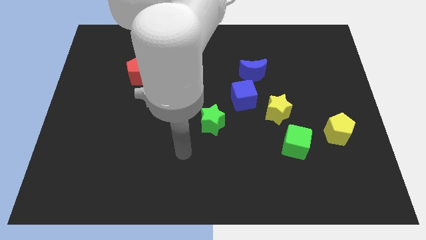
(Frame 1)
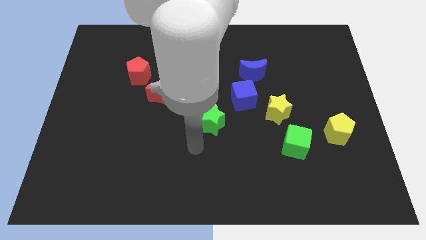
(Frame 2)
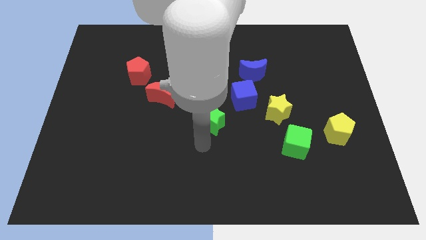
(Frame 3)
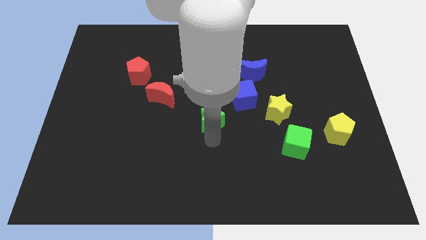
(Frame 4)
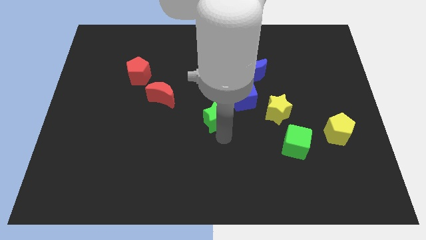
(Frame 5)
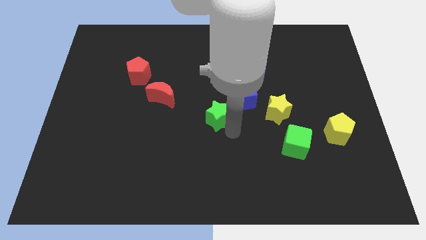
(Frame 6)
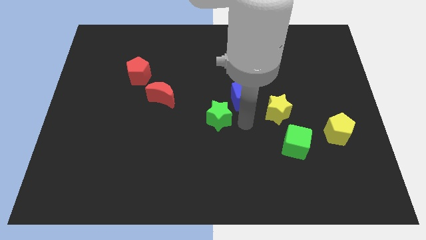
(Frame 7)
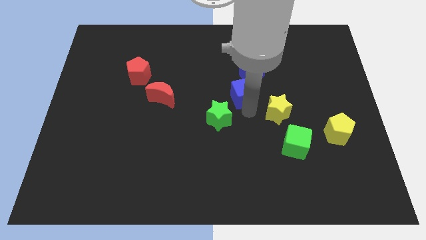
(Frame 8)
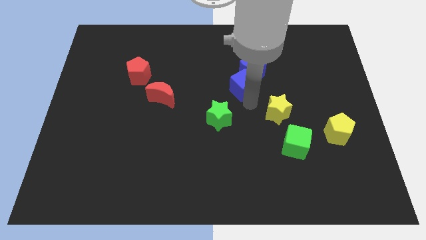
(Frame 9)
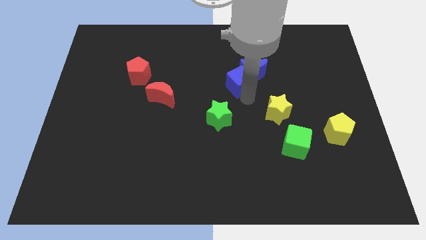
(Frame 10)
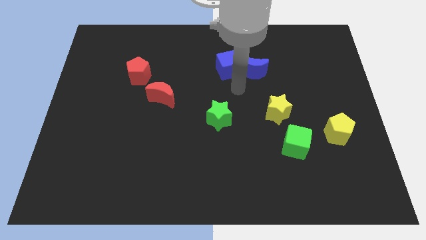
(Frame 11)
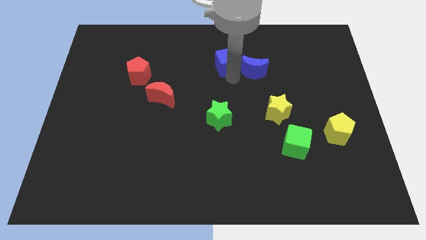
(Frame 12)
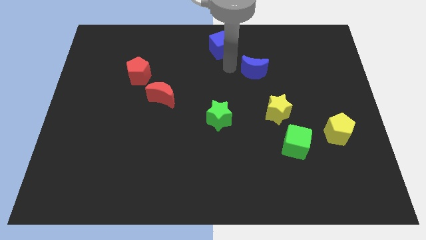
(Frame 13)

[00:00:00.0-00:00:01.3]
move the blue moon away from the blue cube

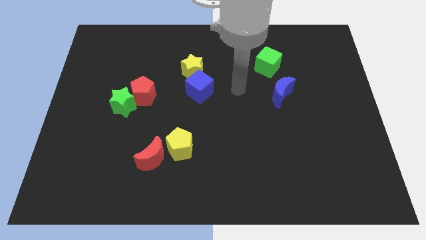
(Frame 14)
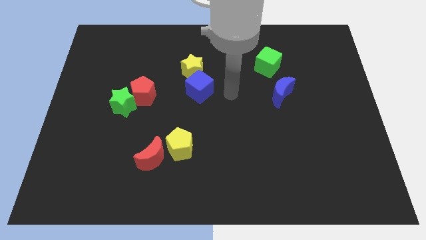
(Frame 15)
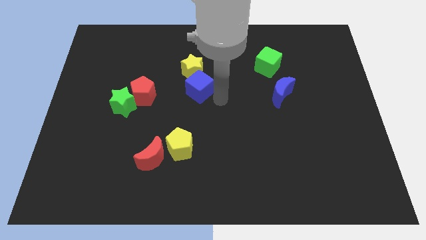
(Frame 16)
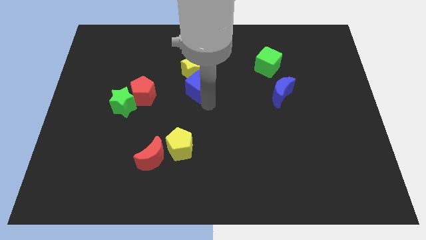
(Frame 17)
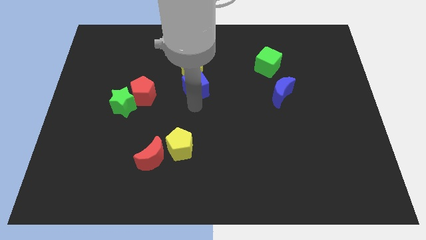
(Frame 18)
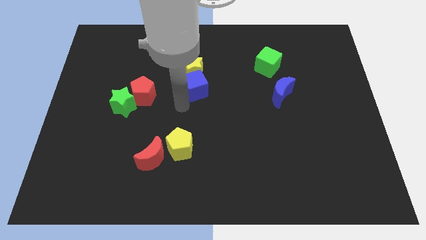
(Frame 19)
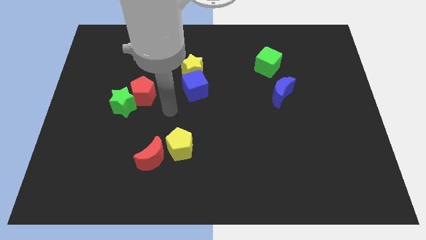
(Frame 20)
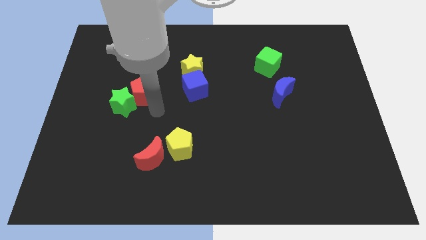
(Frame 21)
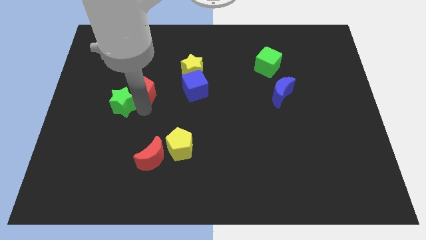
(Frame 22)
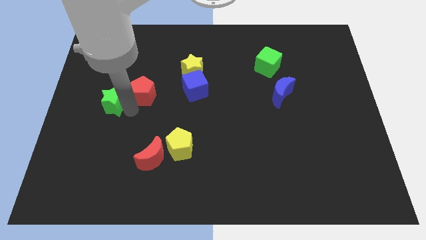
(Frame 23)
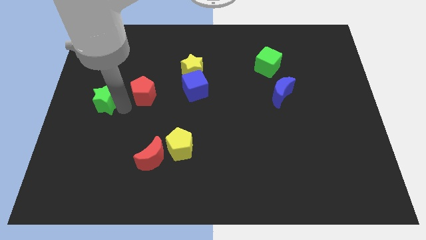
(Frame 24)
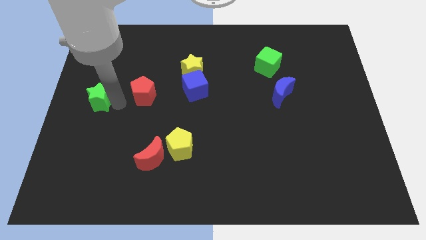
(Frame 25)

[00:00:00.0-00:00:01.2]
move the red pentagon away from the green star

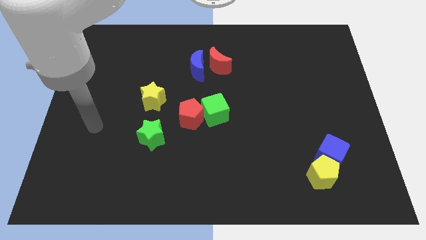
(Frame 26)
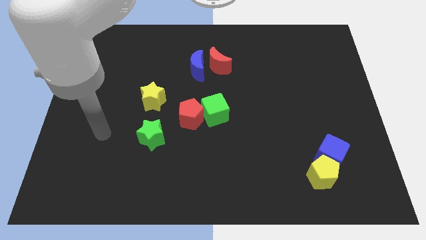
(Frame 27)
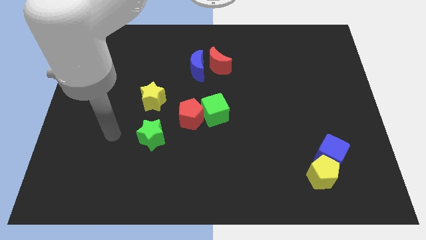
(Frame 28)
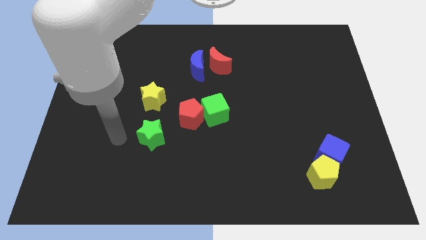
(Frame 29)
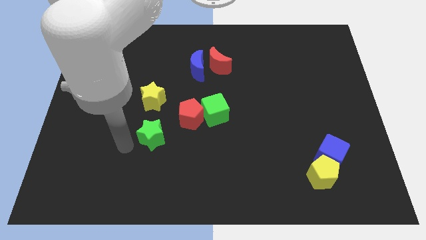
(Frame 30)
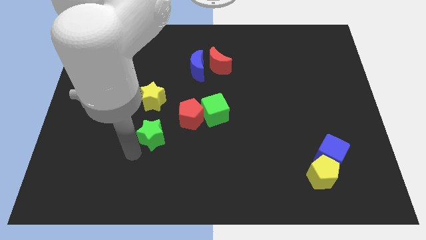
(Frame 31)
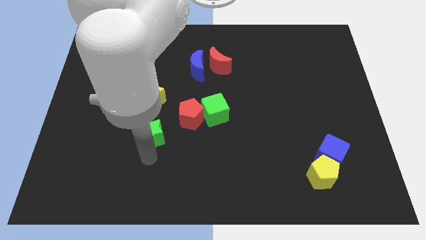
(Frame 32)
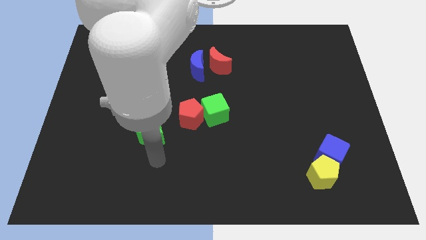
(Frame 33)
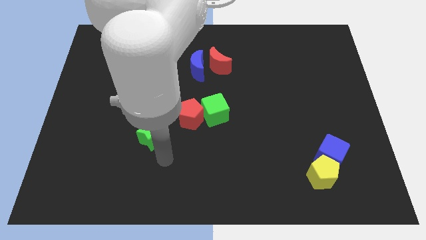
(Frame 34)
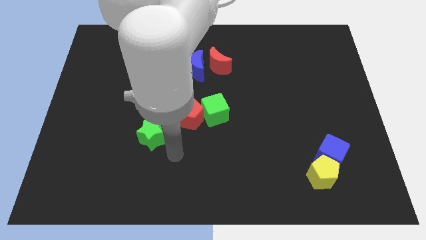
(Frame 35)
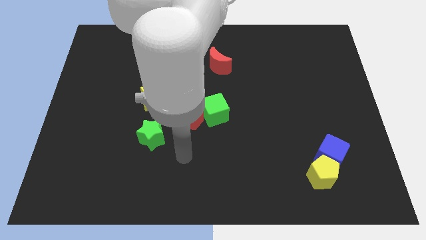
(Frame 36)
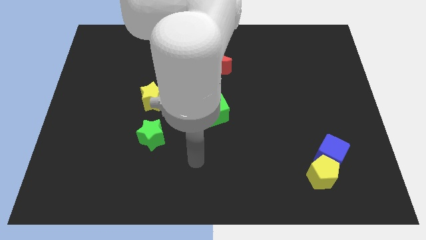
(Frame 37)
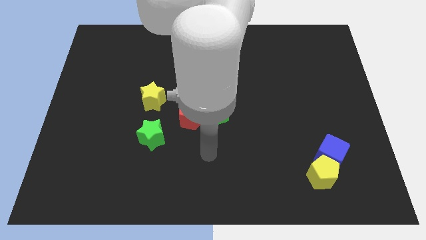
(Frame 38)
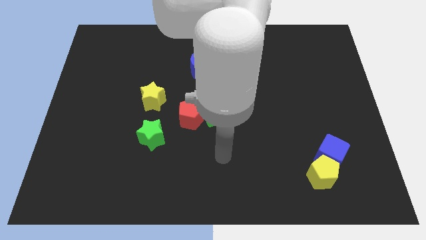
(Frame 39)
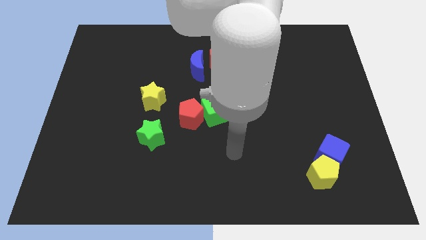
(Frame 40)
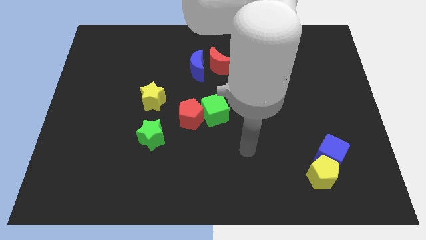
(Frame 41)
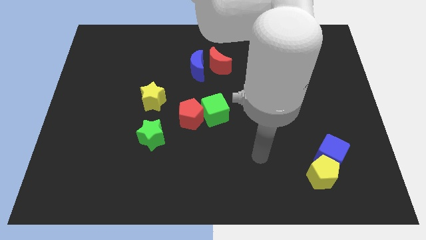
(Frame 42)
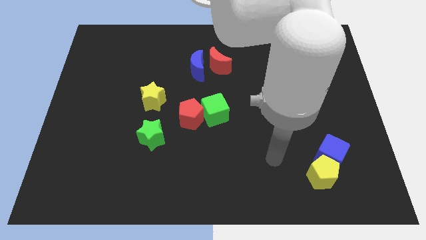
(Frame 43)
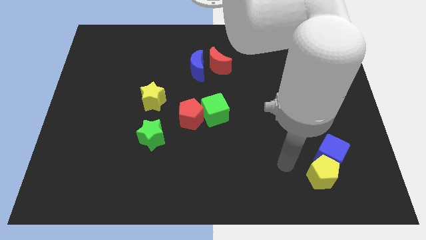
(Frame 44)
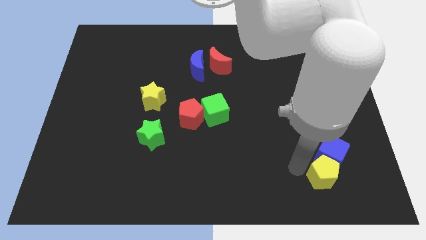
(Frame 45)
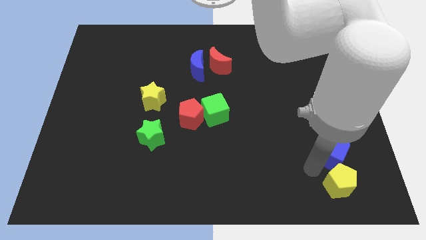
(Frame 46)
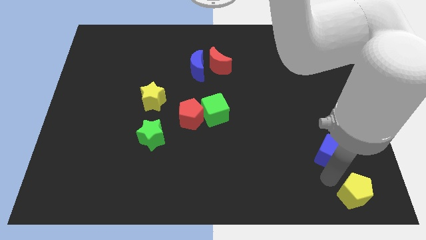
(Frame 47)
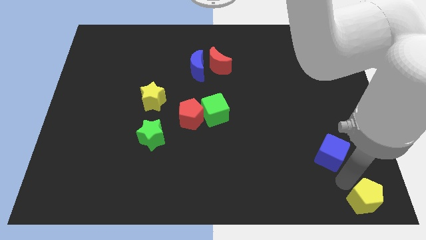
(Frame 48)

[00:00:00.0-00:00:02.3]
pull the blue cube apart from the yellow pentagon

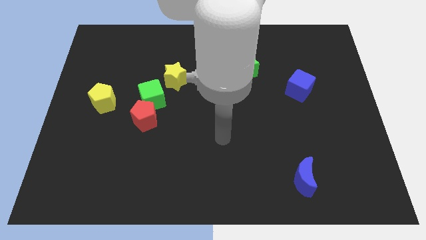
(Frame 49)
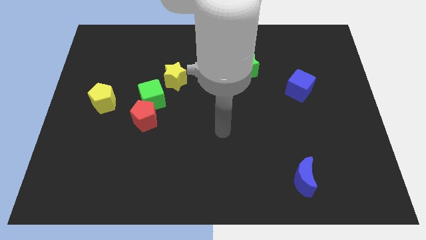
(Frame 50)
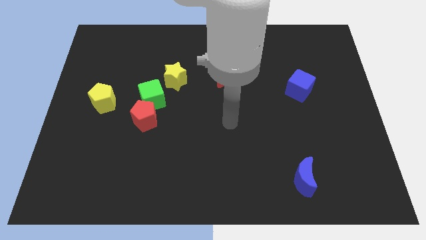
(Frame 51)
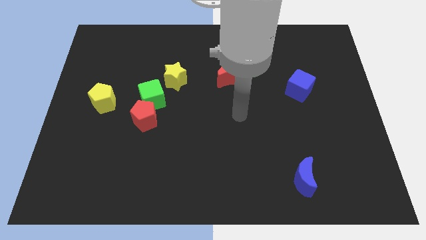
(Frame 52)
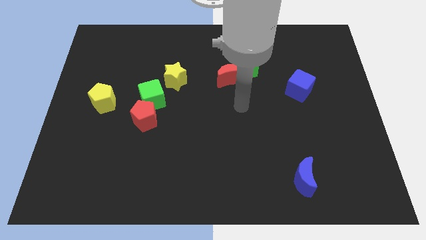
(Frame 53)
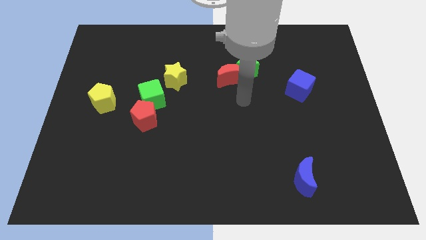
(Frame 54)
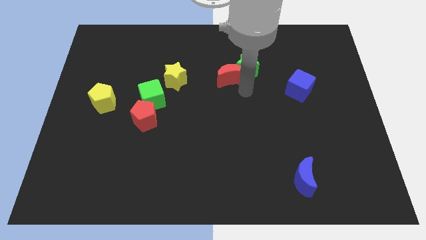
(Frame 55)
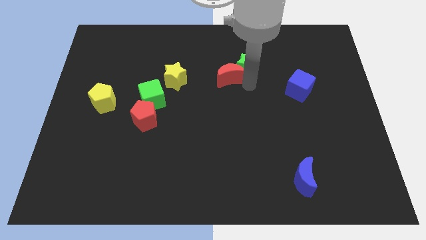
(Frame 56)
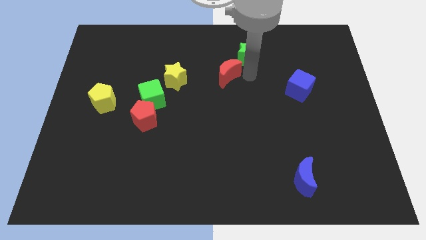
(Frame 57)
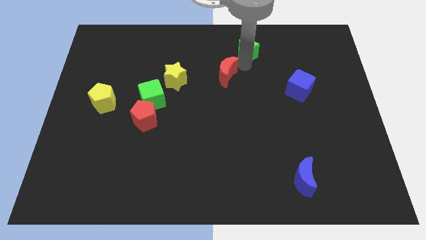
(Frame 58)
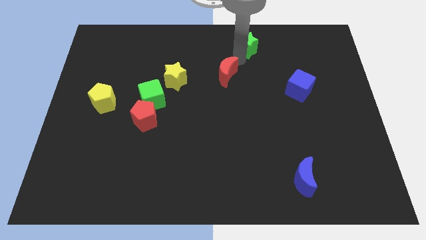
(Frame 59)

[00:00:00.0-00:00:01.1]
separate the red moon from the green star

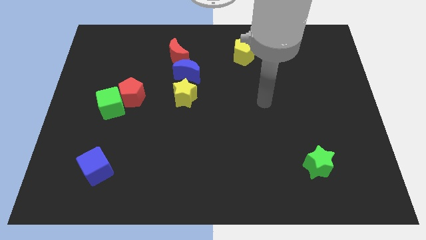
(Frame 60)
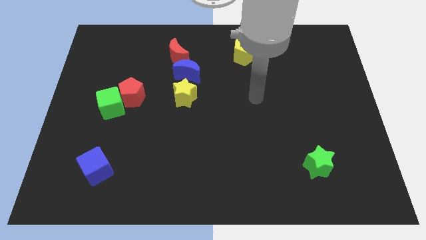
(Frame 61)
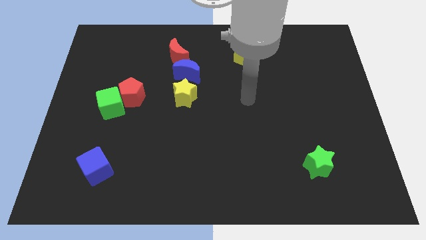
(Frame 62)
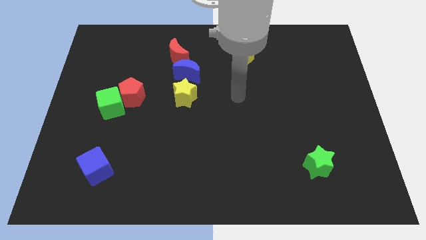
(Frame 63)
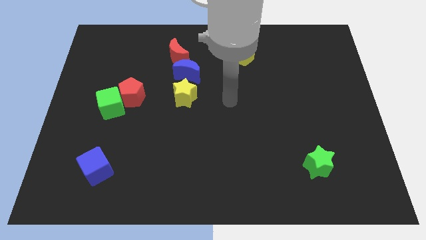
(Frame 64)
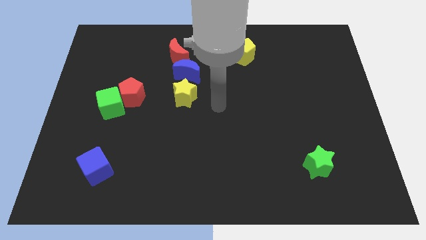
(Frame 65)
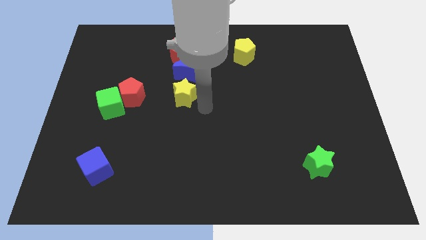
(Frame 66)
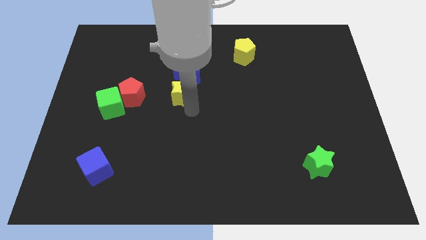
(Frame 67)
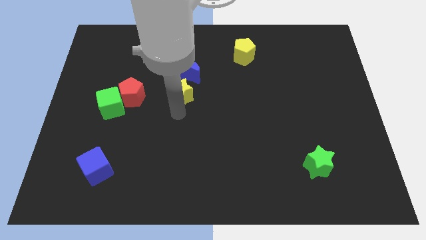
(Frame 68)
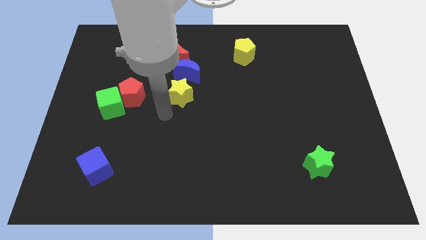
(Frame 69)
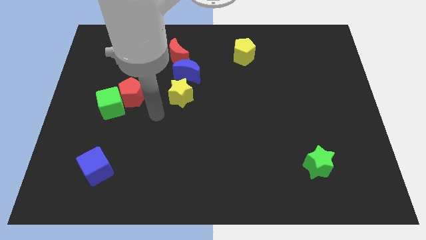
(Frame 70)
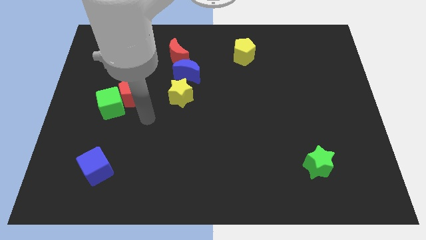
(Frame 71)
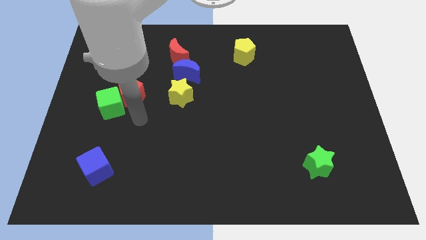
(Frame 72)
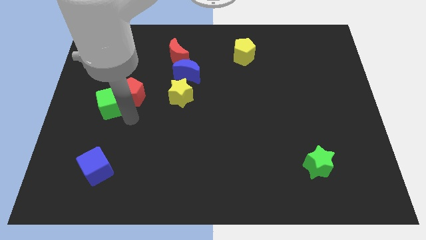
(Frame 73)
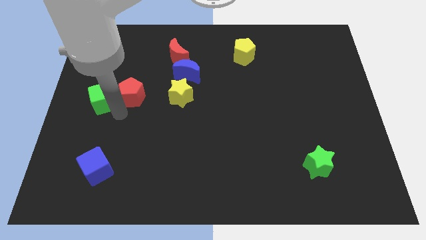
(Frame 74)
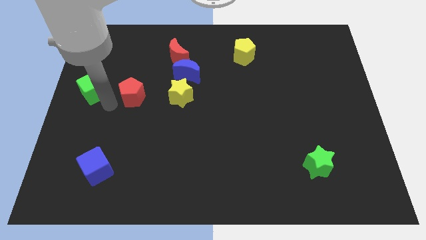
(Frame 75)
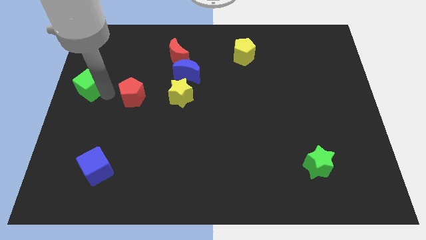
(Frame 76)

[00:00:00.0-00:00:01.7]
pull the red pentagon apart from the green cube

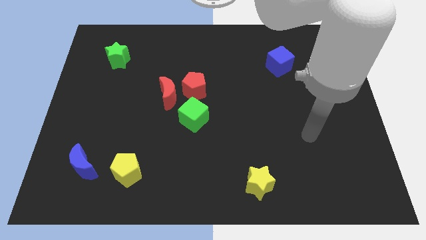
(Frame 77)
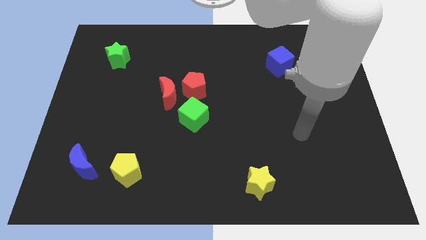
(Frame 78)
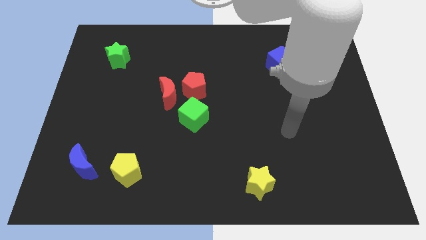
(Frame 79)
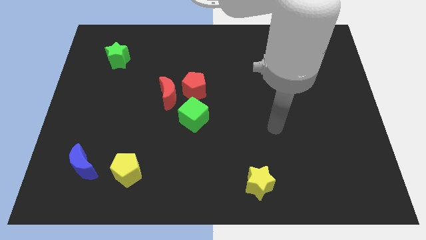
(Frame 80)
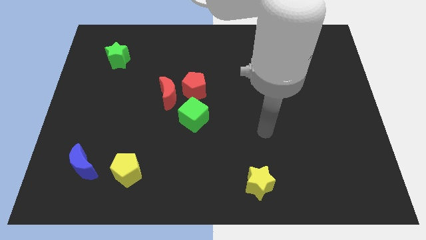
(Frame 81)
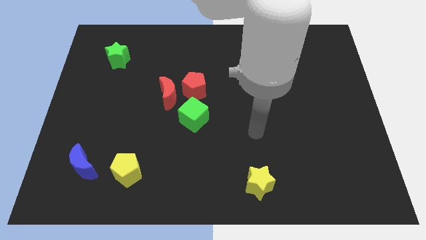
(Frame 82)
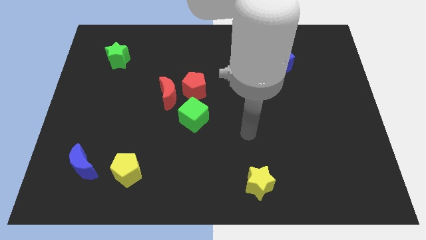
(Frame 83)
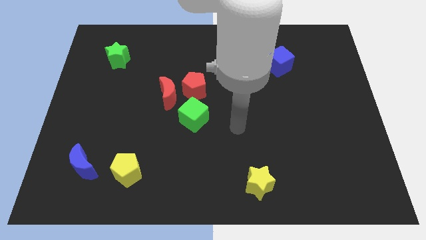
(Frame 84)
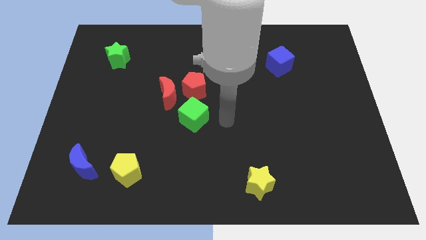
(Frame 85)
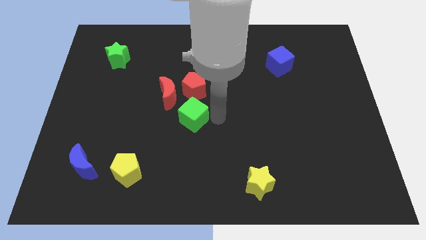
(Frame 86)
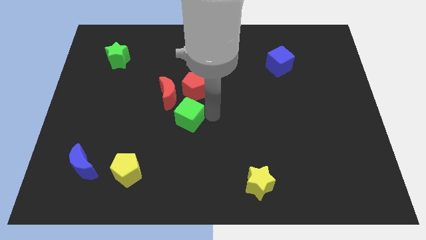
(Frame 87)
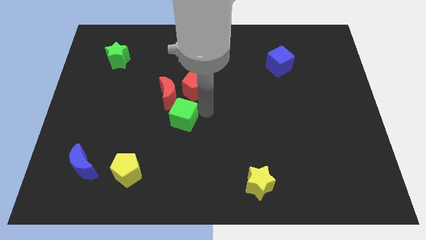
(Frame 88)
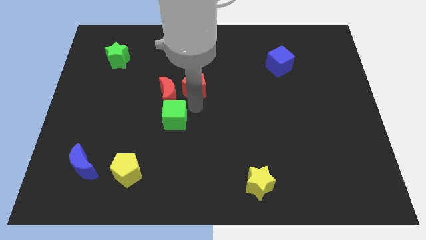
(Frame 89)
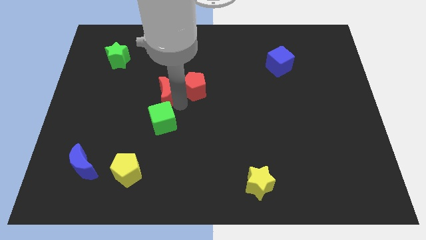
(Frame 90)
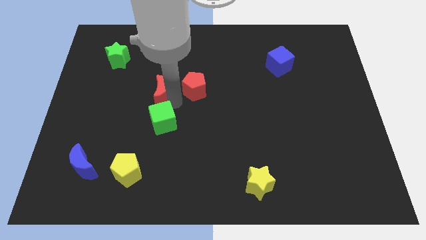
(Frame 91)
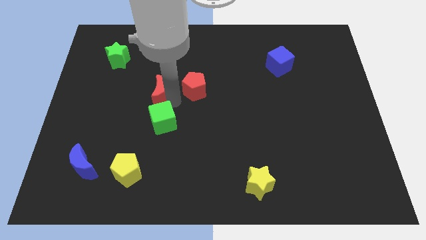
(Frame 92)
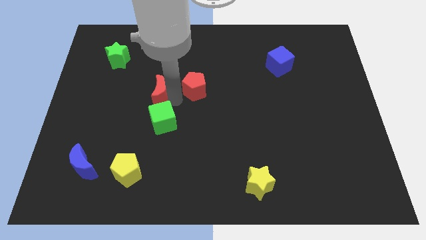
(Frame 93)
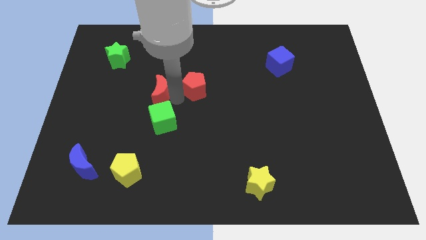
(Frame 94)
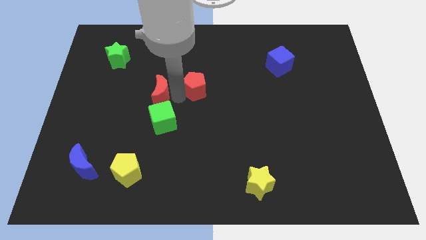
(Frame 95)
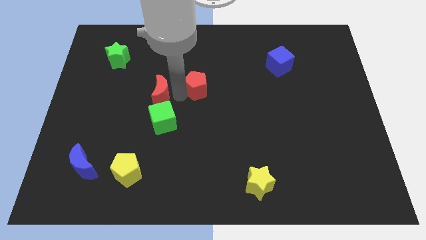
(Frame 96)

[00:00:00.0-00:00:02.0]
separate the red pentagon from the red moon and green cube
